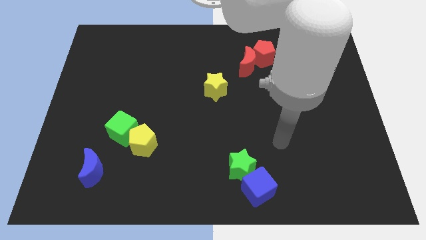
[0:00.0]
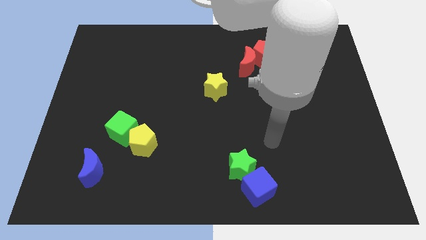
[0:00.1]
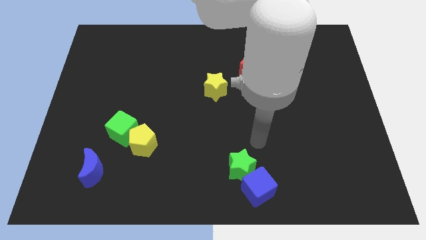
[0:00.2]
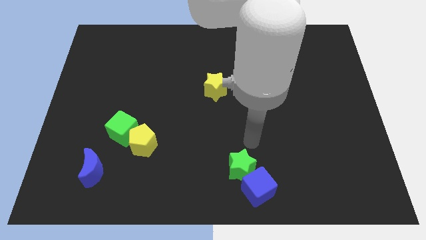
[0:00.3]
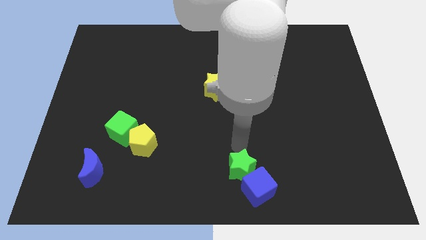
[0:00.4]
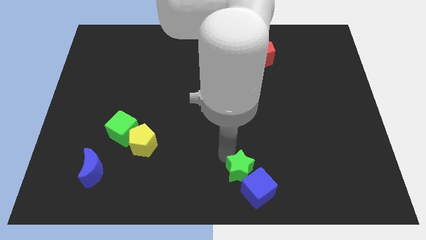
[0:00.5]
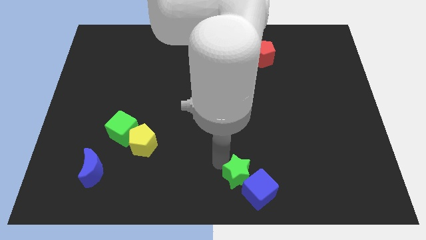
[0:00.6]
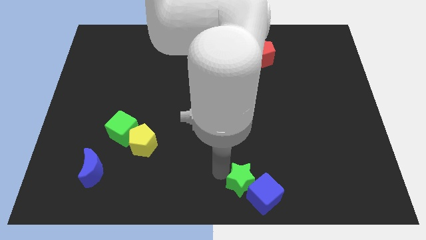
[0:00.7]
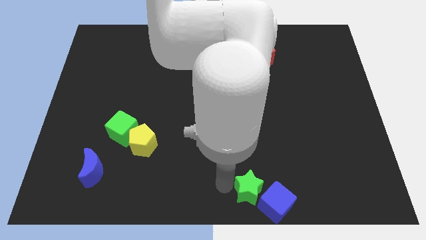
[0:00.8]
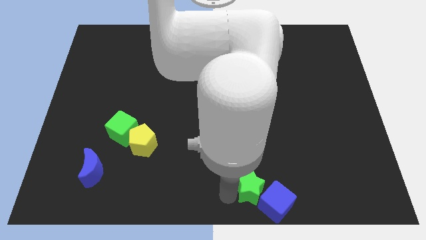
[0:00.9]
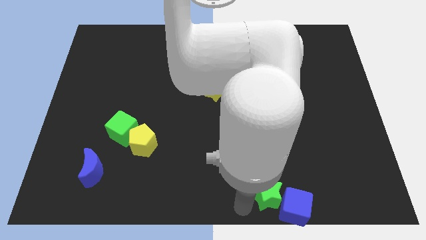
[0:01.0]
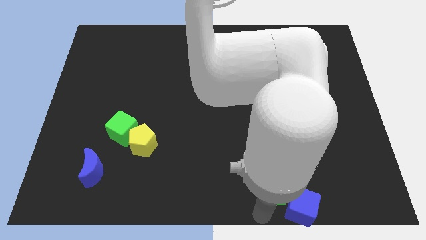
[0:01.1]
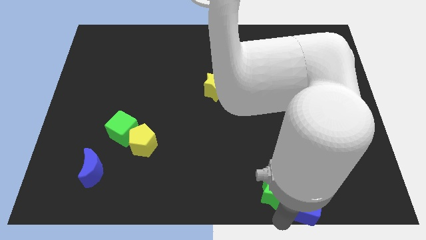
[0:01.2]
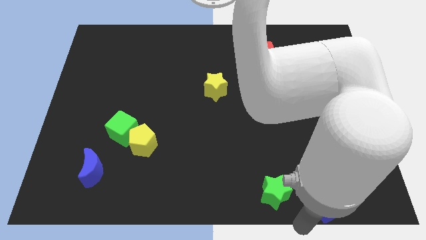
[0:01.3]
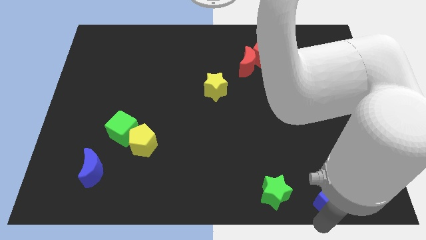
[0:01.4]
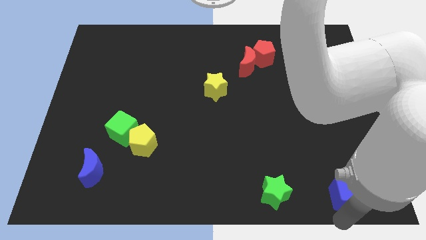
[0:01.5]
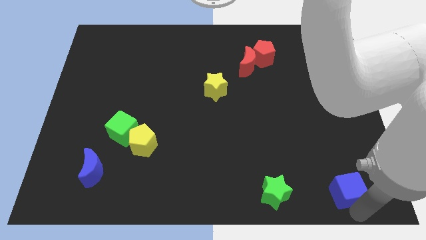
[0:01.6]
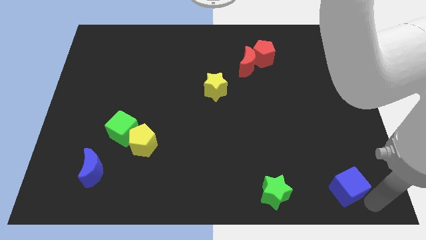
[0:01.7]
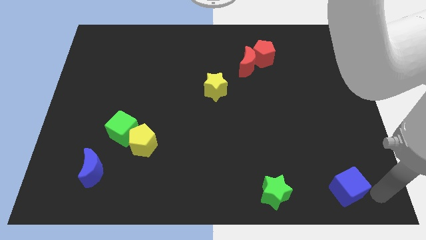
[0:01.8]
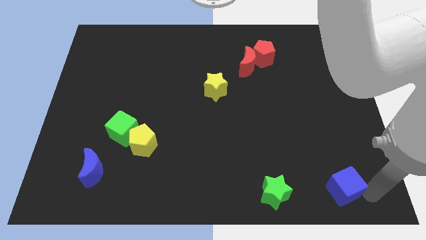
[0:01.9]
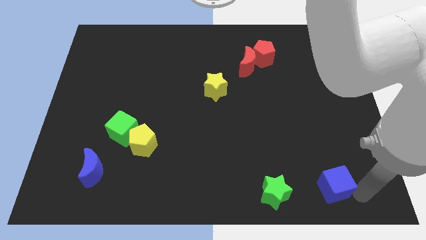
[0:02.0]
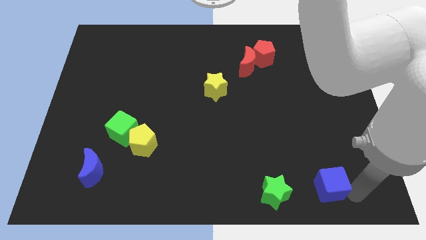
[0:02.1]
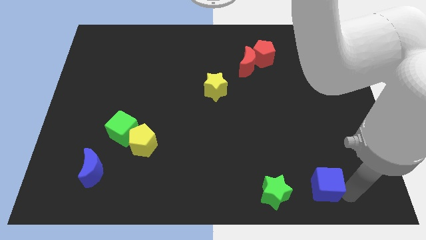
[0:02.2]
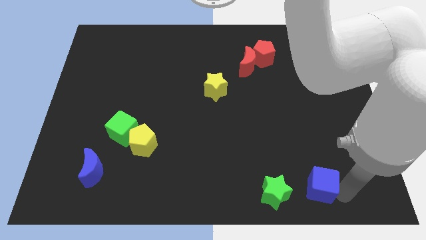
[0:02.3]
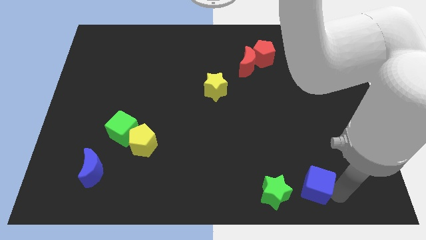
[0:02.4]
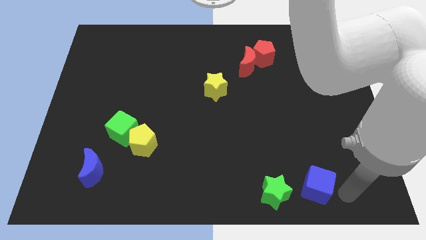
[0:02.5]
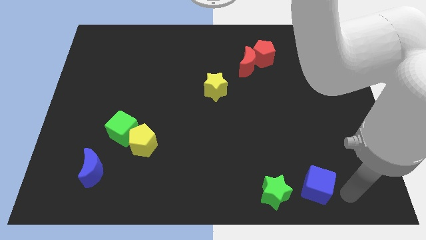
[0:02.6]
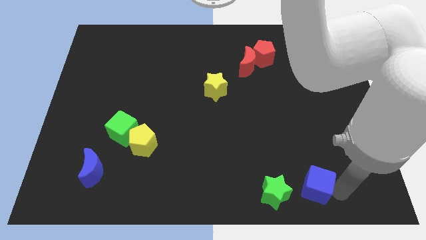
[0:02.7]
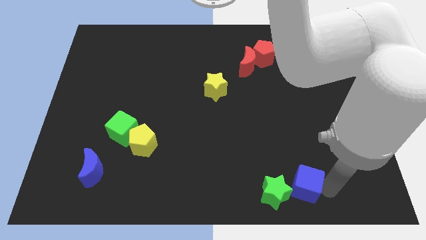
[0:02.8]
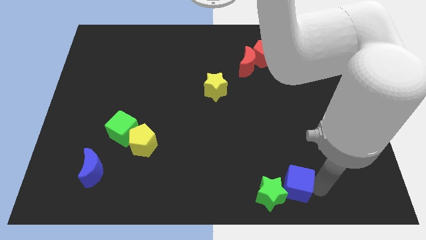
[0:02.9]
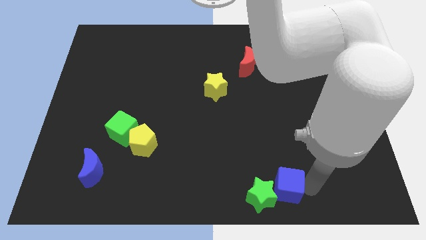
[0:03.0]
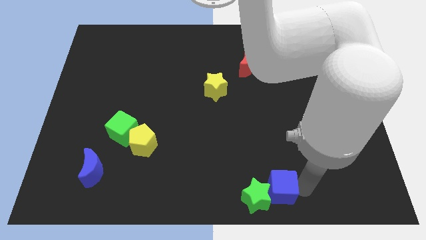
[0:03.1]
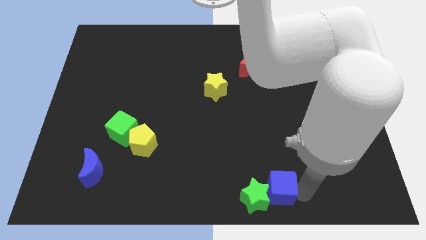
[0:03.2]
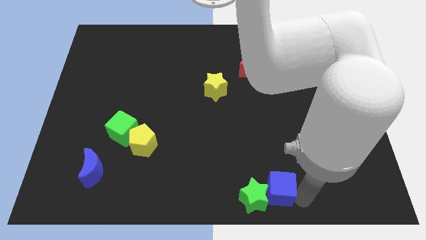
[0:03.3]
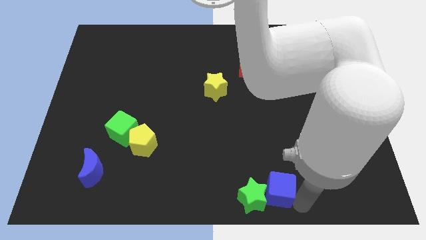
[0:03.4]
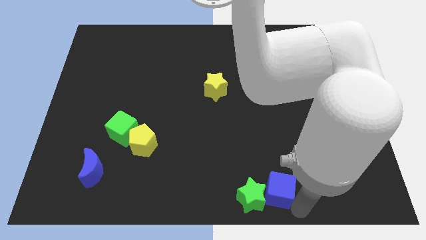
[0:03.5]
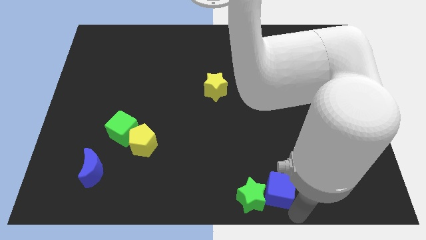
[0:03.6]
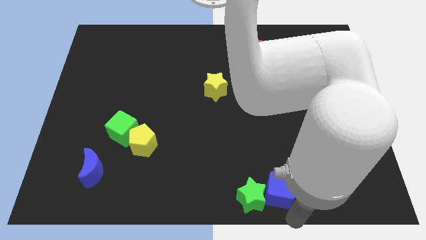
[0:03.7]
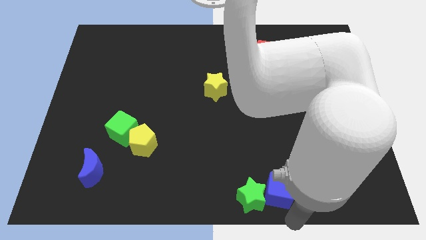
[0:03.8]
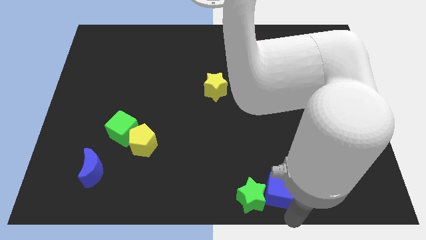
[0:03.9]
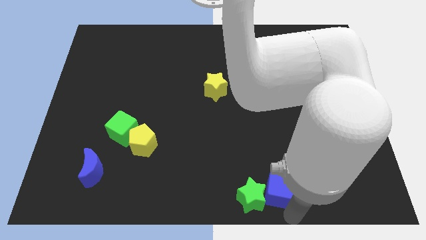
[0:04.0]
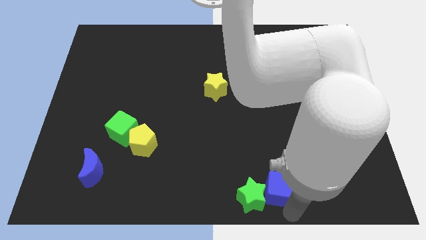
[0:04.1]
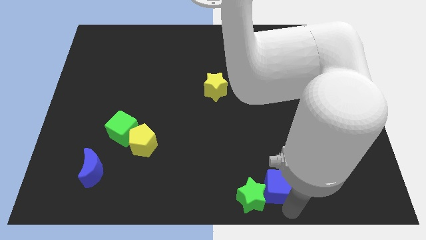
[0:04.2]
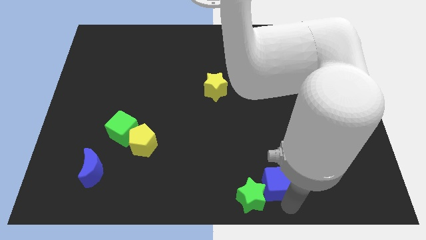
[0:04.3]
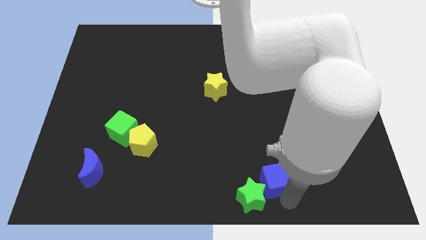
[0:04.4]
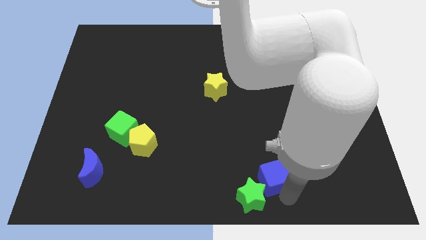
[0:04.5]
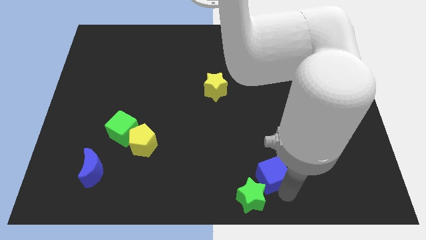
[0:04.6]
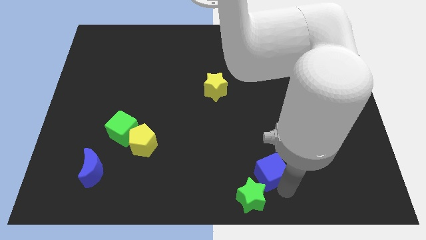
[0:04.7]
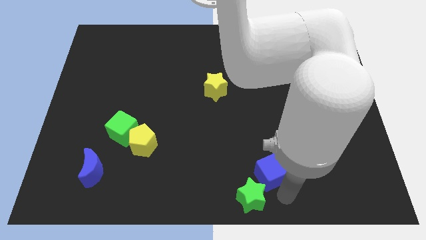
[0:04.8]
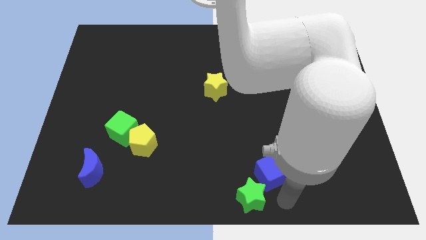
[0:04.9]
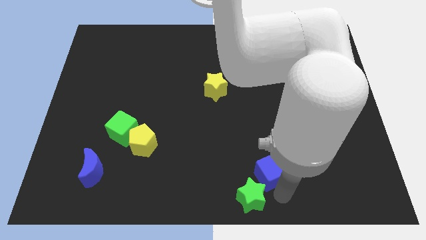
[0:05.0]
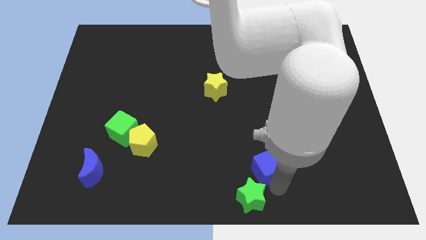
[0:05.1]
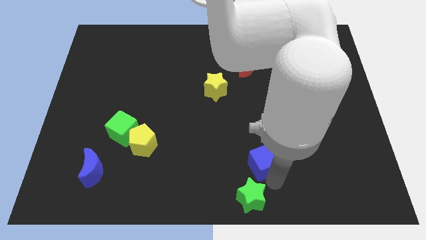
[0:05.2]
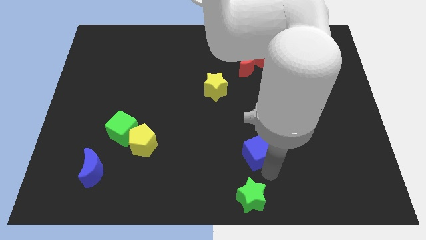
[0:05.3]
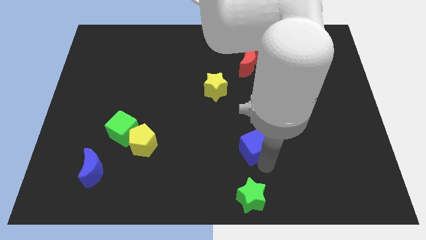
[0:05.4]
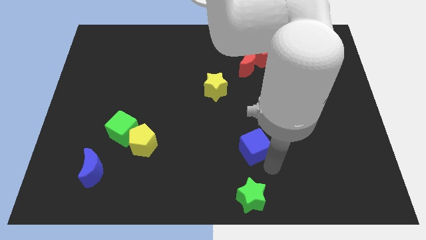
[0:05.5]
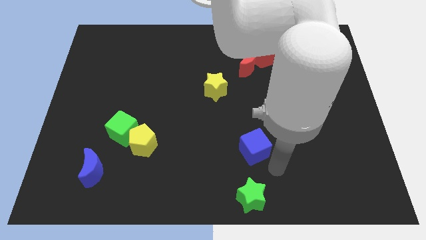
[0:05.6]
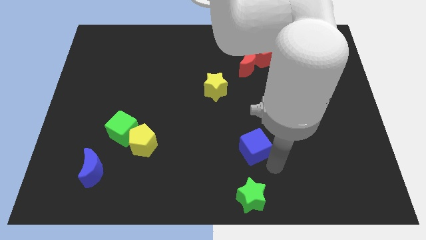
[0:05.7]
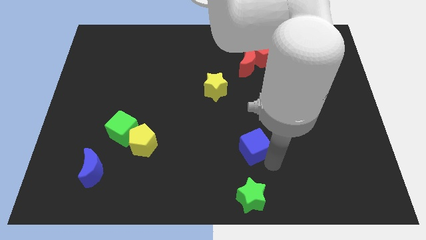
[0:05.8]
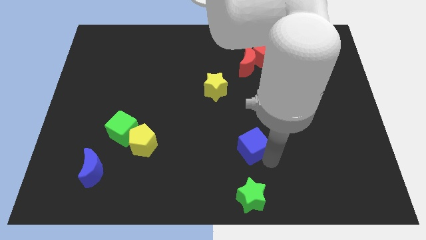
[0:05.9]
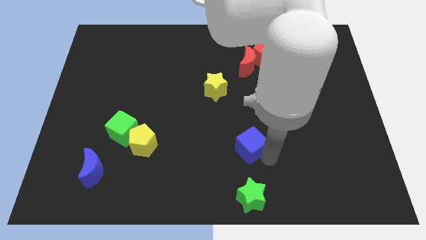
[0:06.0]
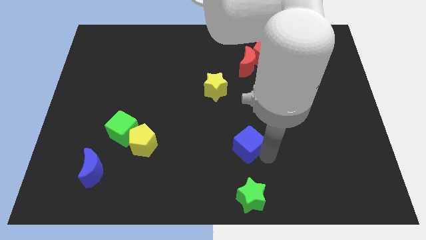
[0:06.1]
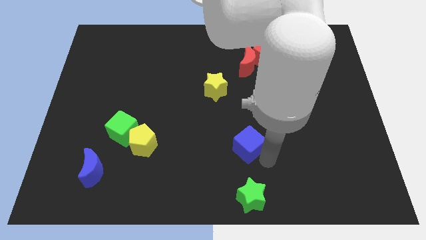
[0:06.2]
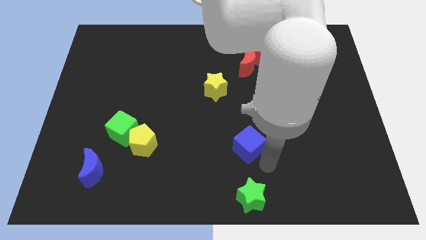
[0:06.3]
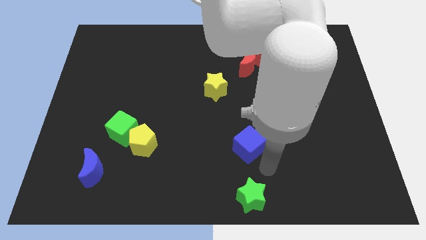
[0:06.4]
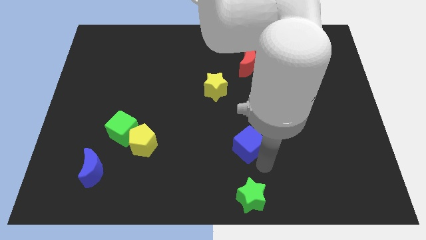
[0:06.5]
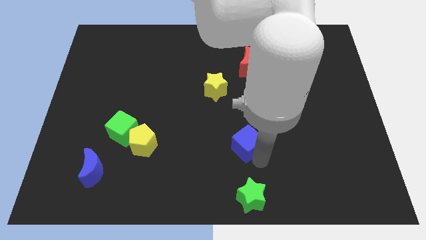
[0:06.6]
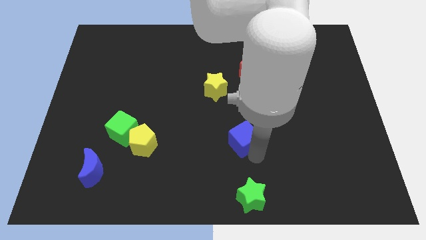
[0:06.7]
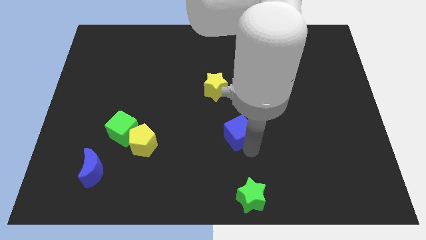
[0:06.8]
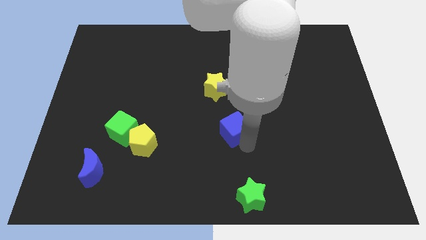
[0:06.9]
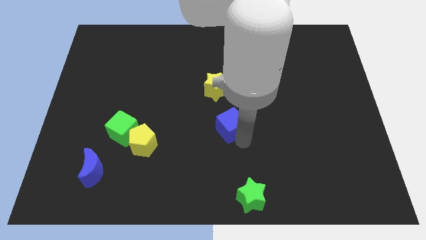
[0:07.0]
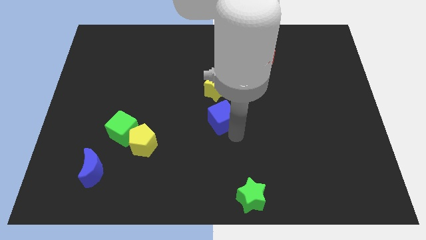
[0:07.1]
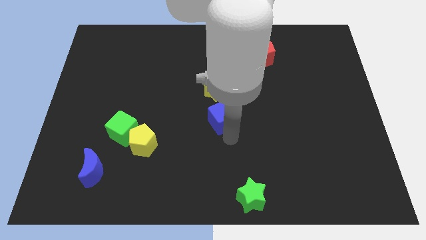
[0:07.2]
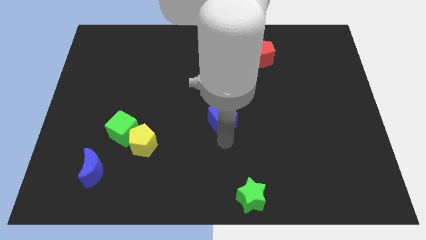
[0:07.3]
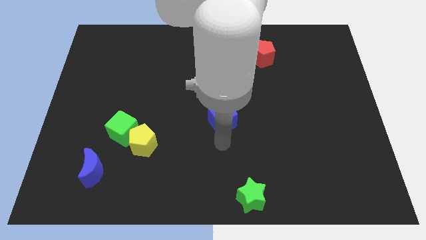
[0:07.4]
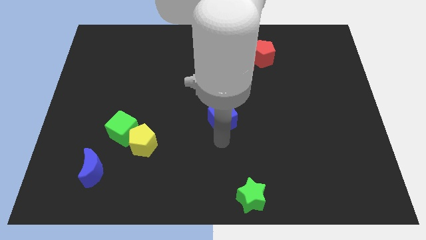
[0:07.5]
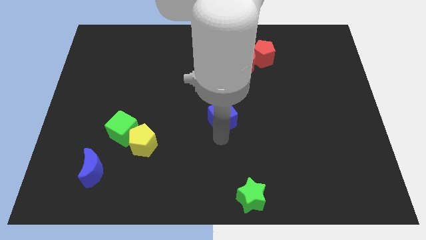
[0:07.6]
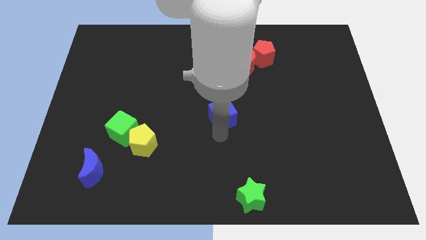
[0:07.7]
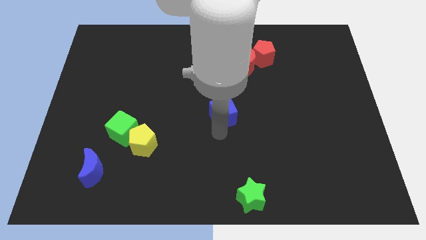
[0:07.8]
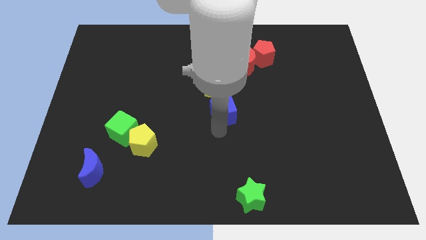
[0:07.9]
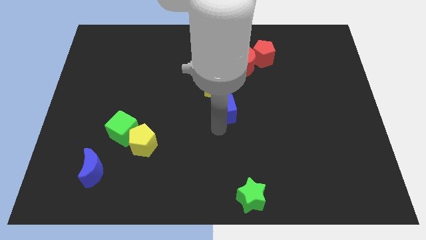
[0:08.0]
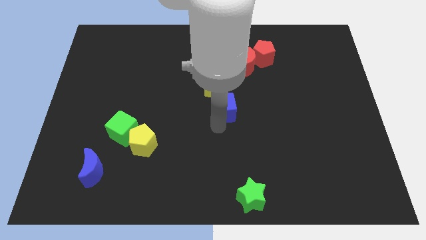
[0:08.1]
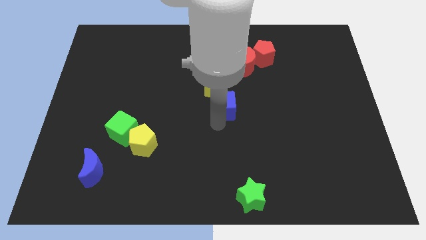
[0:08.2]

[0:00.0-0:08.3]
slide the blue cube to the yellow star
